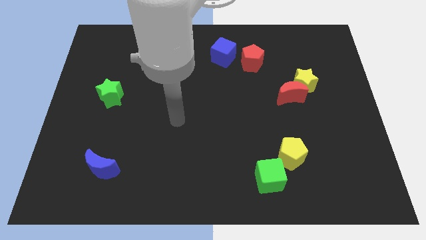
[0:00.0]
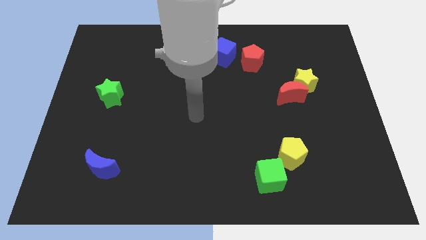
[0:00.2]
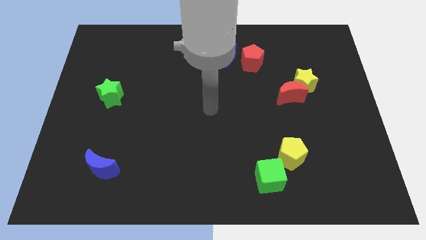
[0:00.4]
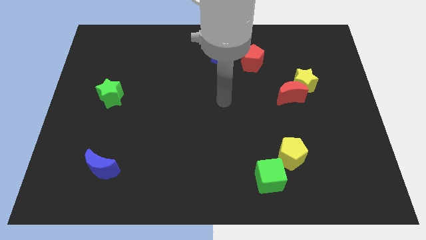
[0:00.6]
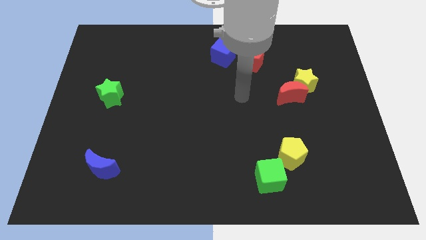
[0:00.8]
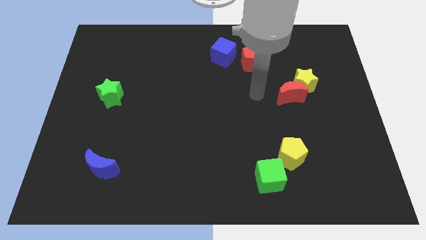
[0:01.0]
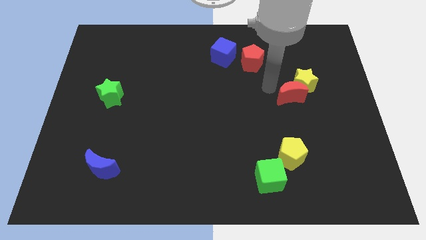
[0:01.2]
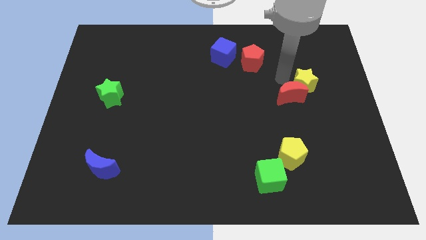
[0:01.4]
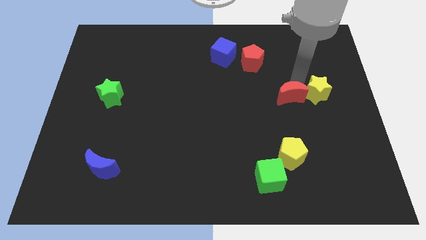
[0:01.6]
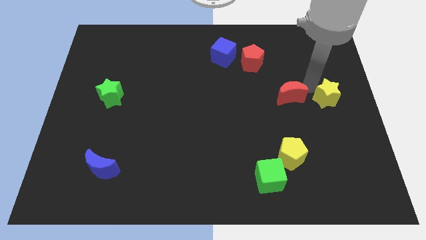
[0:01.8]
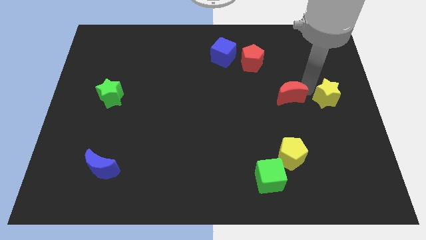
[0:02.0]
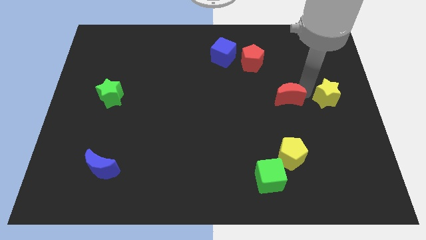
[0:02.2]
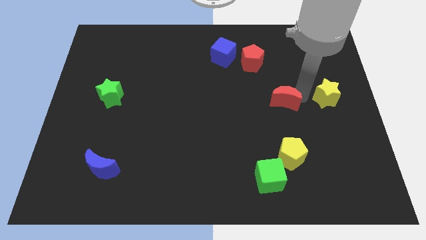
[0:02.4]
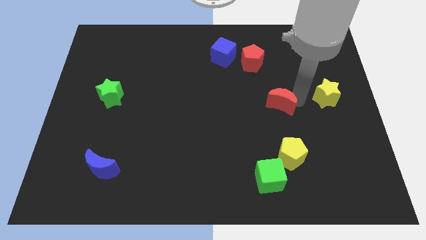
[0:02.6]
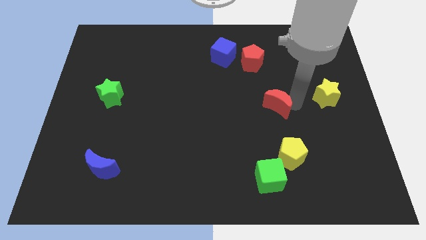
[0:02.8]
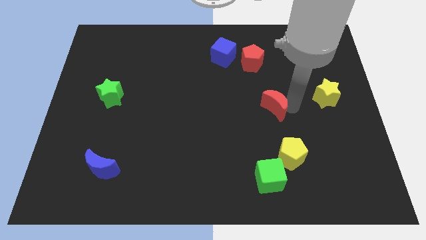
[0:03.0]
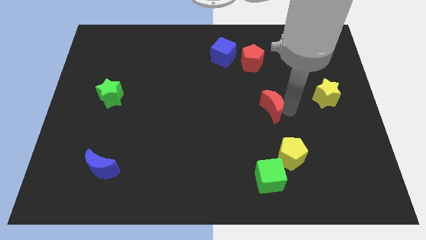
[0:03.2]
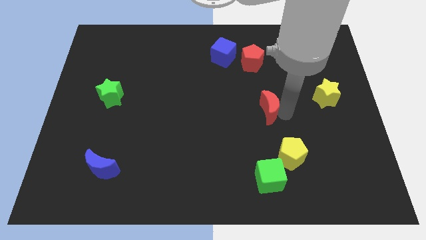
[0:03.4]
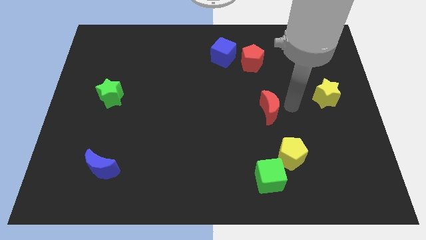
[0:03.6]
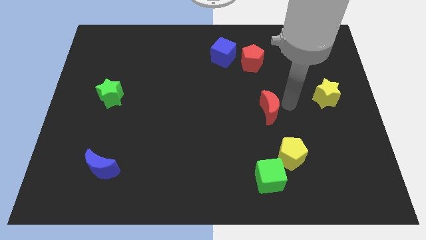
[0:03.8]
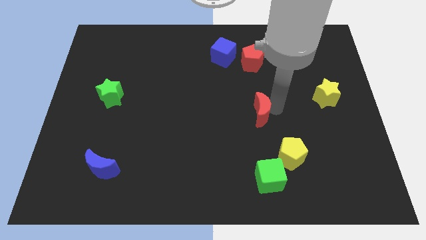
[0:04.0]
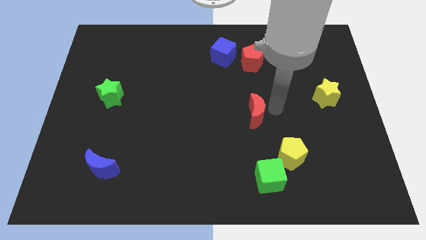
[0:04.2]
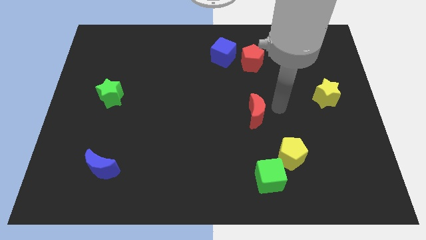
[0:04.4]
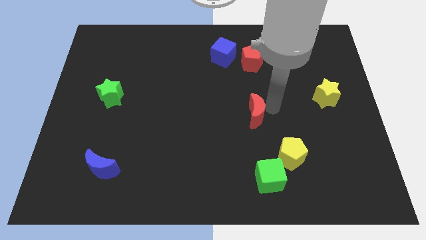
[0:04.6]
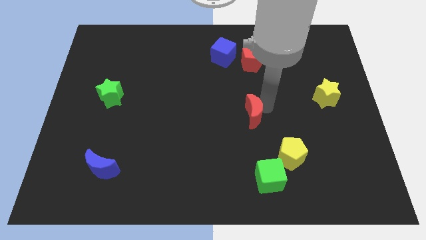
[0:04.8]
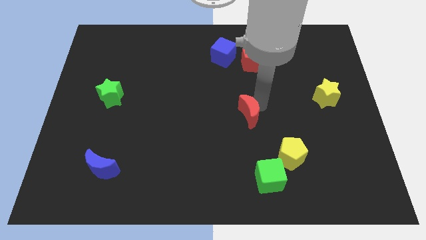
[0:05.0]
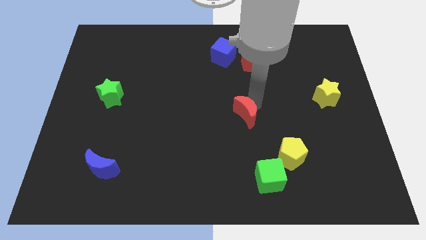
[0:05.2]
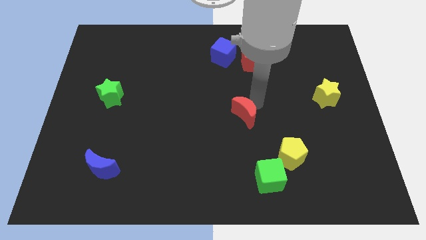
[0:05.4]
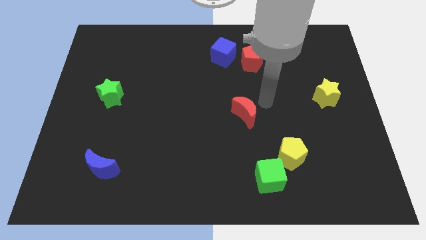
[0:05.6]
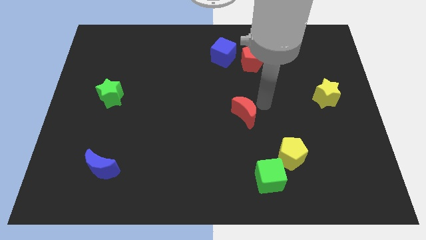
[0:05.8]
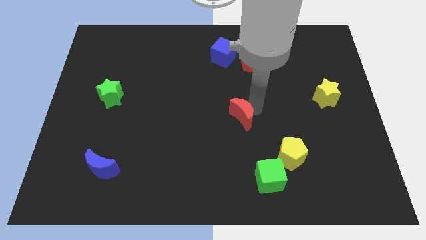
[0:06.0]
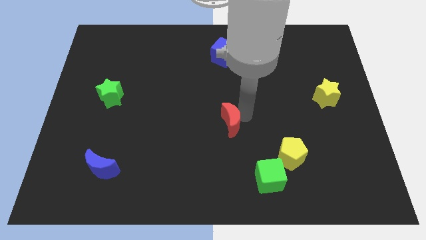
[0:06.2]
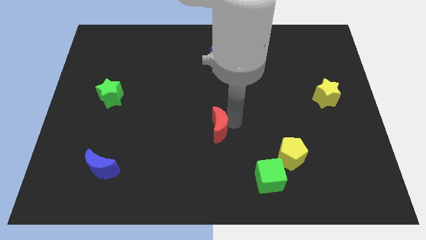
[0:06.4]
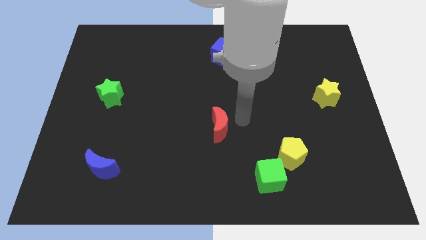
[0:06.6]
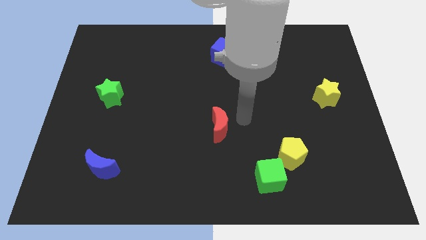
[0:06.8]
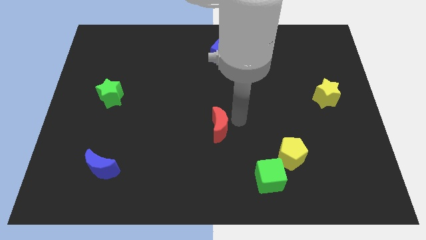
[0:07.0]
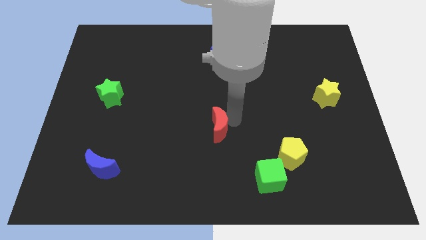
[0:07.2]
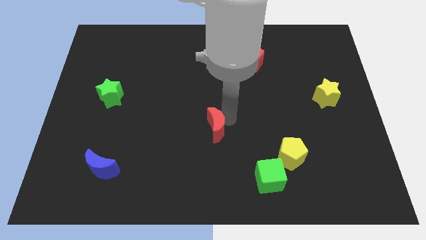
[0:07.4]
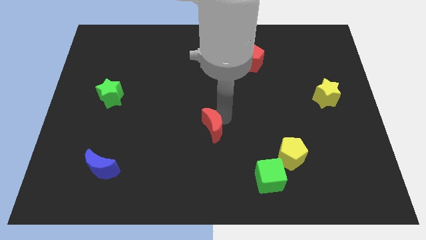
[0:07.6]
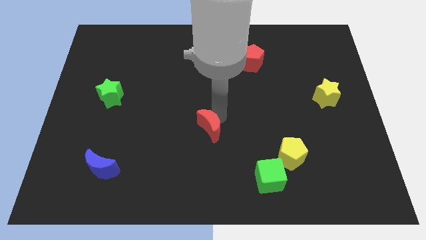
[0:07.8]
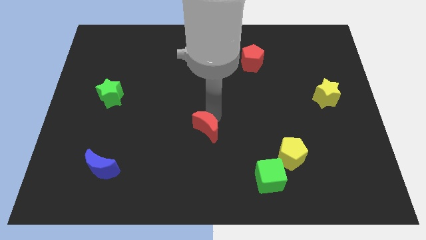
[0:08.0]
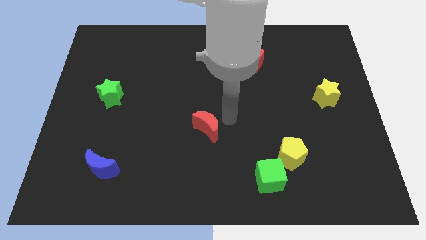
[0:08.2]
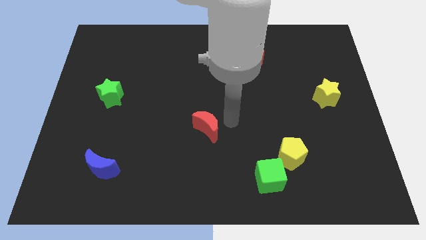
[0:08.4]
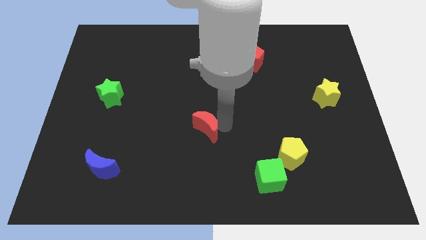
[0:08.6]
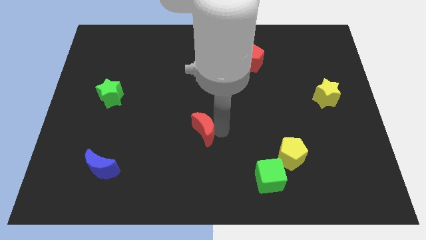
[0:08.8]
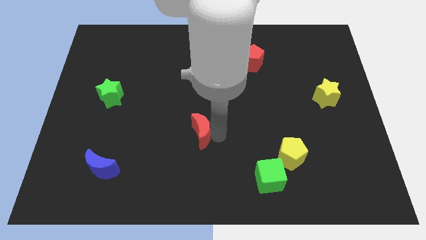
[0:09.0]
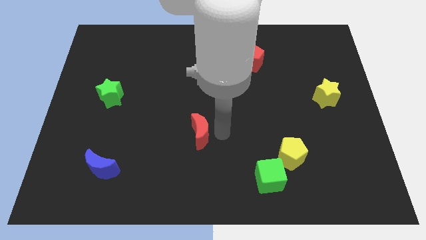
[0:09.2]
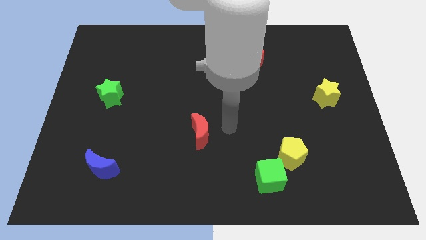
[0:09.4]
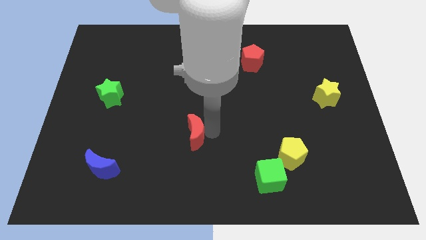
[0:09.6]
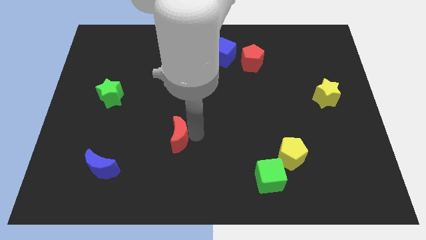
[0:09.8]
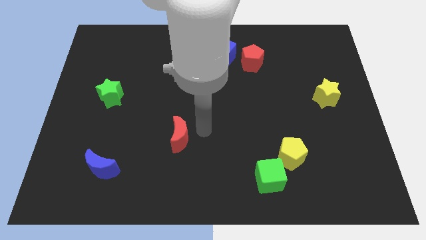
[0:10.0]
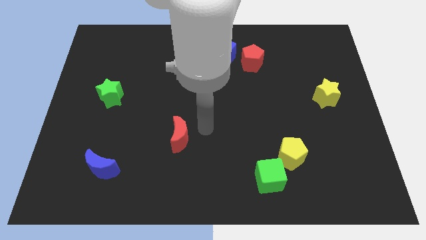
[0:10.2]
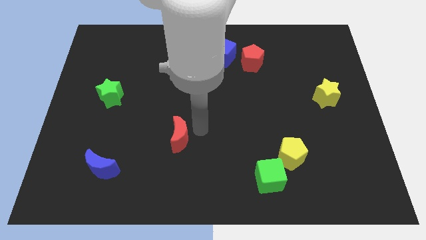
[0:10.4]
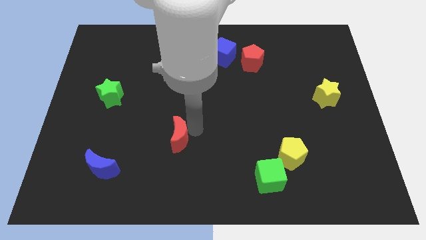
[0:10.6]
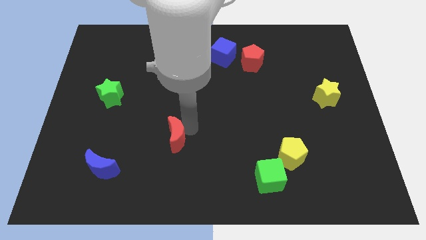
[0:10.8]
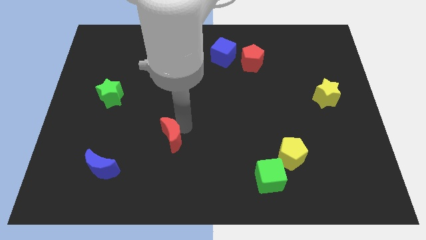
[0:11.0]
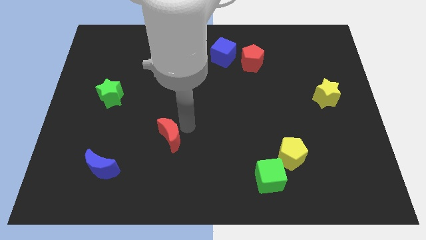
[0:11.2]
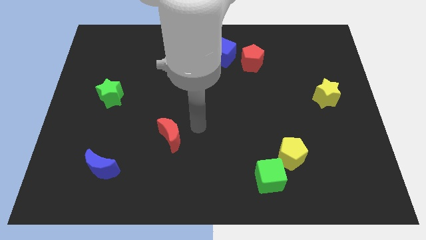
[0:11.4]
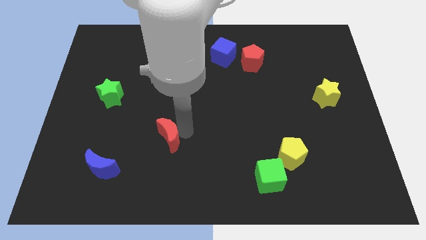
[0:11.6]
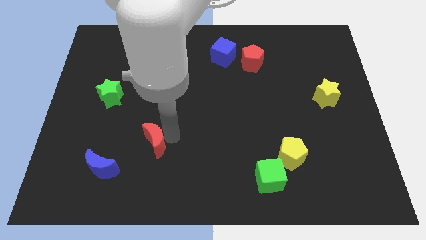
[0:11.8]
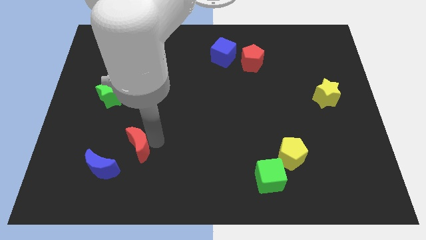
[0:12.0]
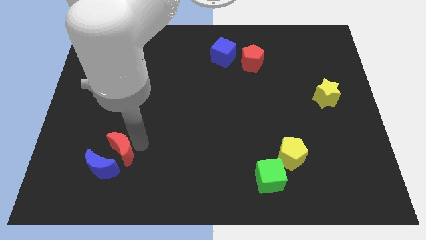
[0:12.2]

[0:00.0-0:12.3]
slide the red moon to the blue moon
